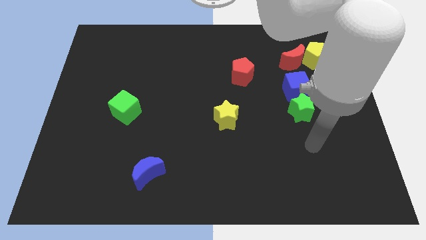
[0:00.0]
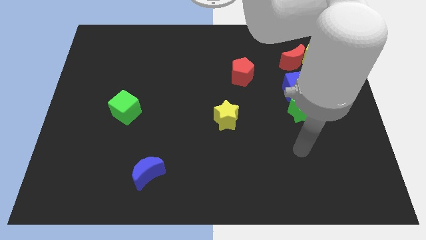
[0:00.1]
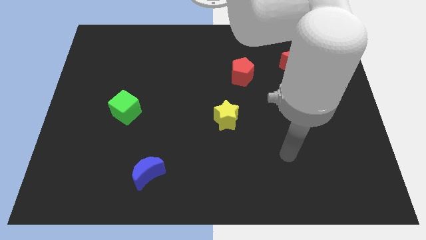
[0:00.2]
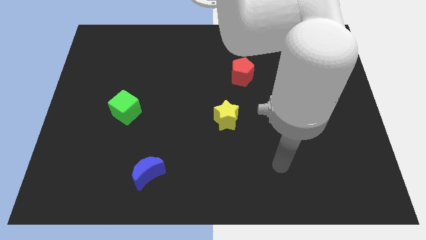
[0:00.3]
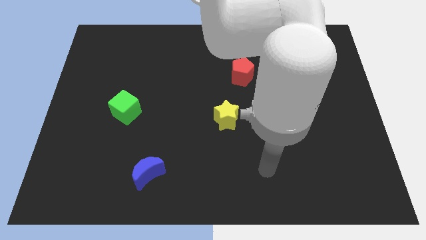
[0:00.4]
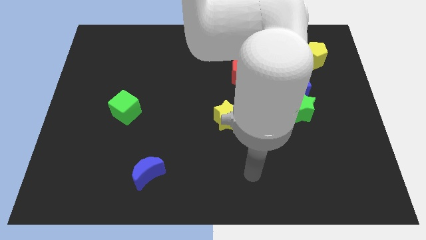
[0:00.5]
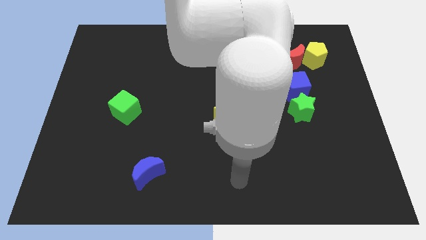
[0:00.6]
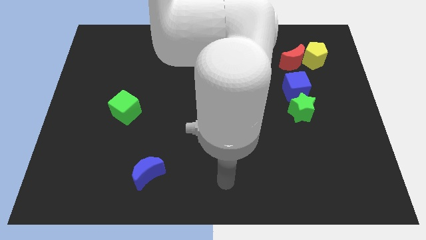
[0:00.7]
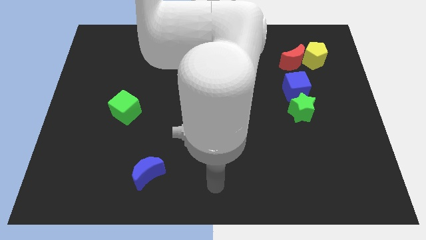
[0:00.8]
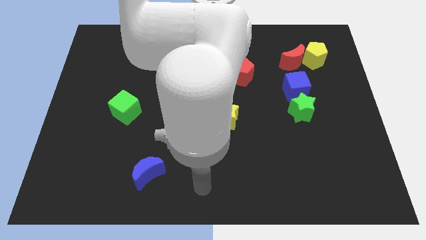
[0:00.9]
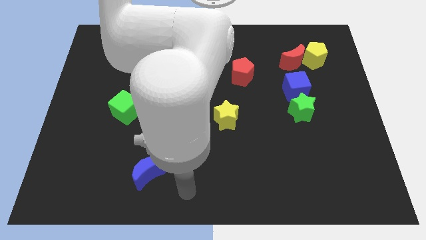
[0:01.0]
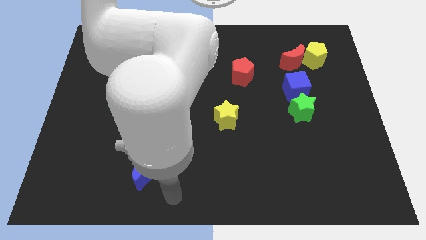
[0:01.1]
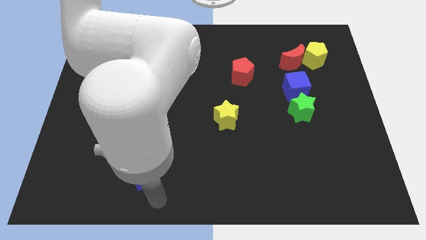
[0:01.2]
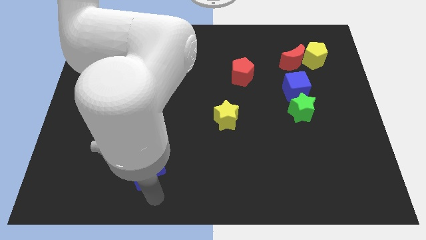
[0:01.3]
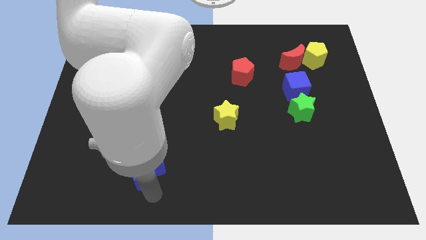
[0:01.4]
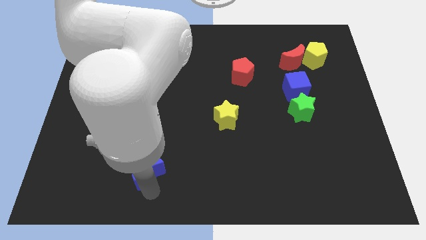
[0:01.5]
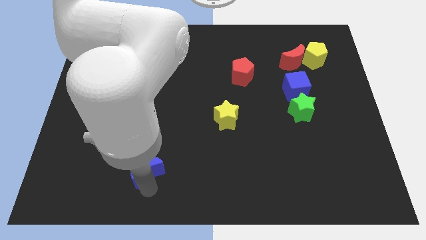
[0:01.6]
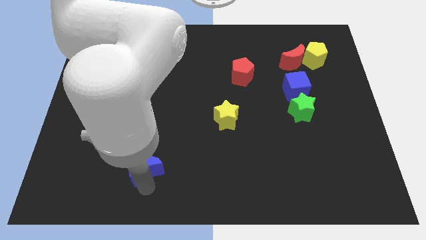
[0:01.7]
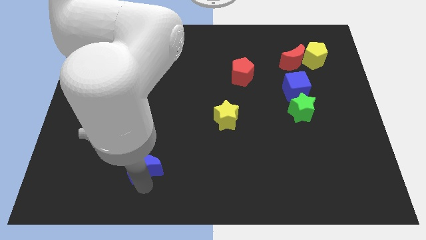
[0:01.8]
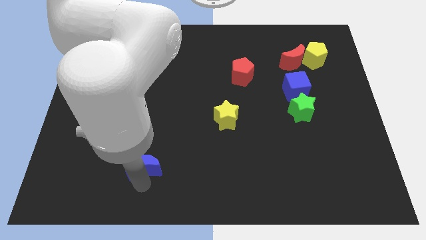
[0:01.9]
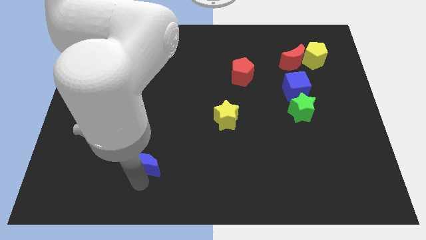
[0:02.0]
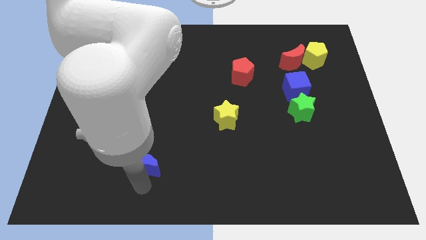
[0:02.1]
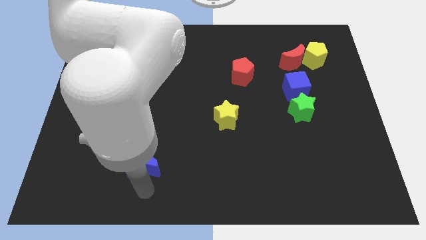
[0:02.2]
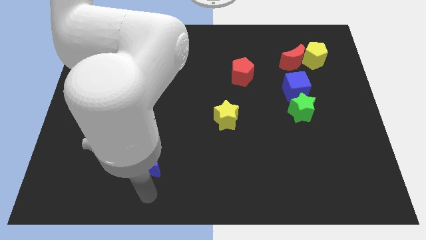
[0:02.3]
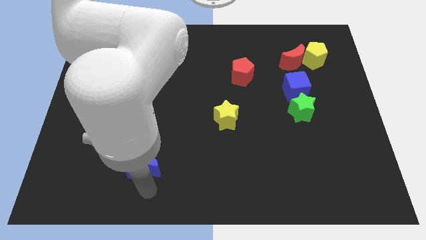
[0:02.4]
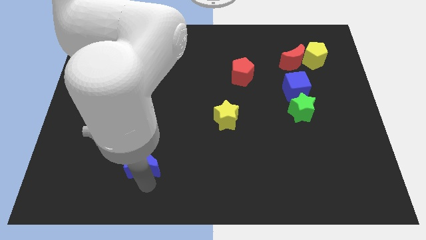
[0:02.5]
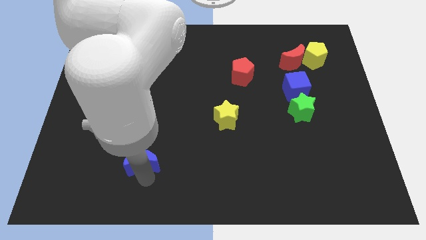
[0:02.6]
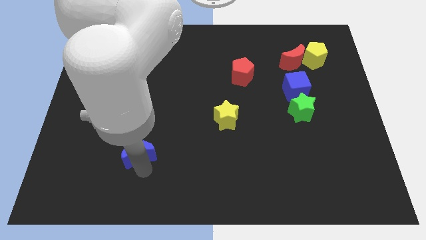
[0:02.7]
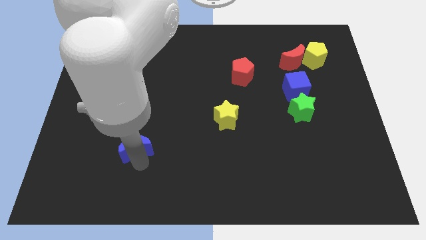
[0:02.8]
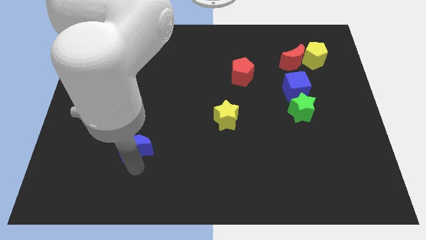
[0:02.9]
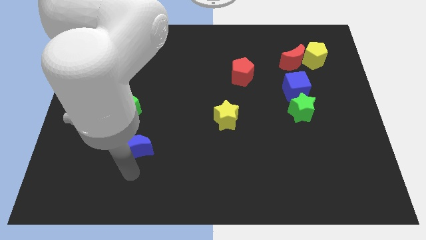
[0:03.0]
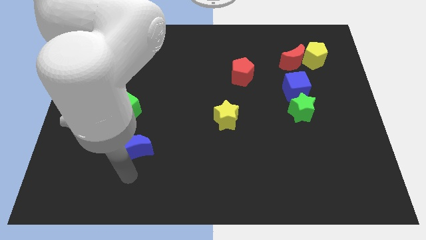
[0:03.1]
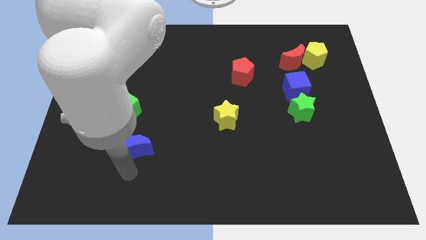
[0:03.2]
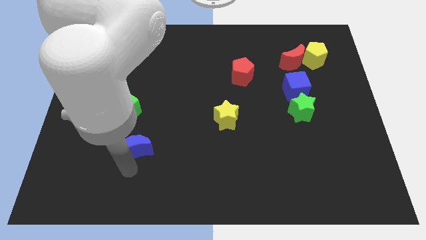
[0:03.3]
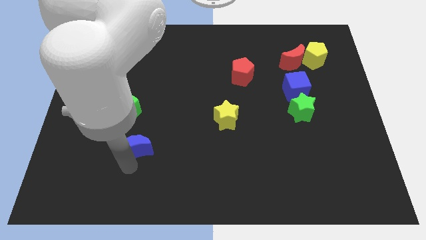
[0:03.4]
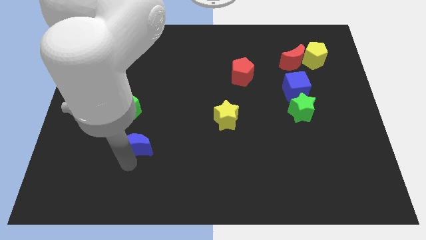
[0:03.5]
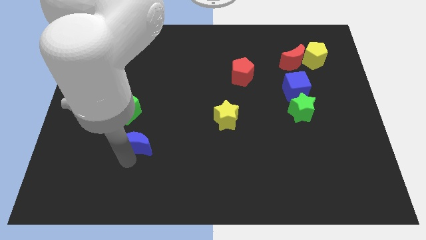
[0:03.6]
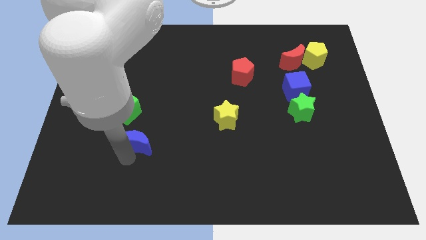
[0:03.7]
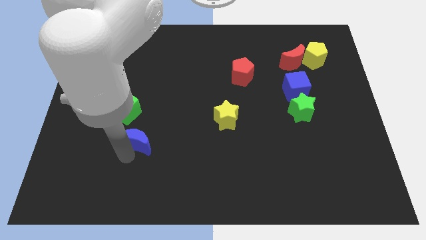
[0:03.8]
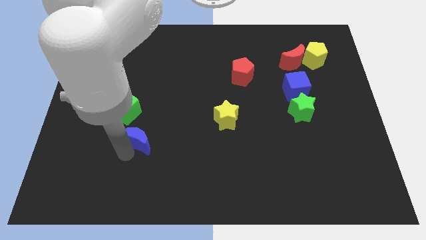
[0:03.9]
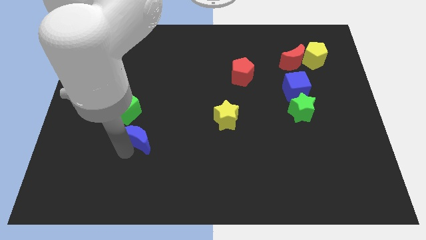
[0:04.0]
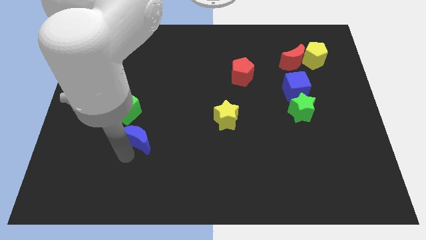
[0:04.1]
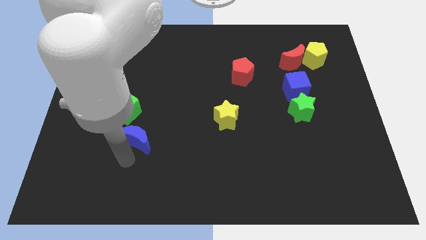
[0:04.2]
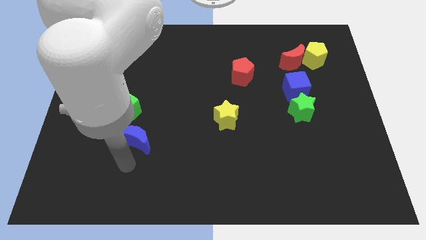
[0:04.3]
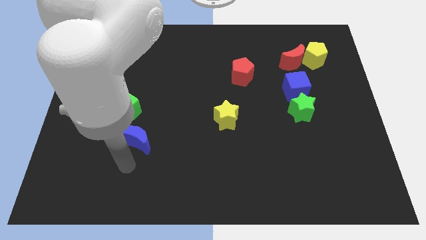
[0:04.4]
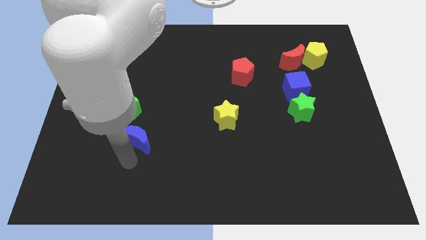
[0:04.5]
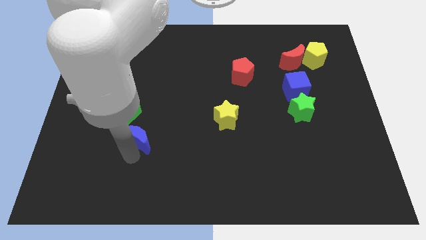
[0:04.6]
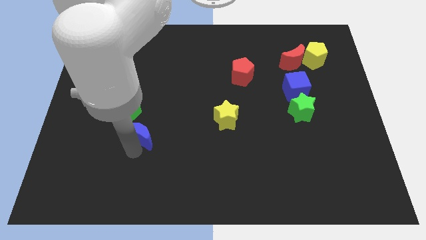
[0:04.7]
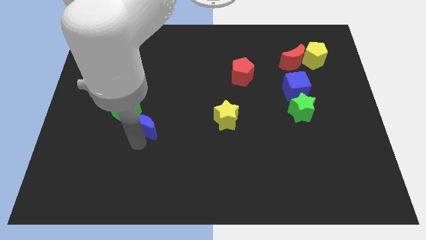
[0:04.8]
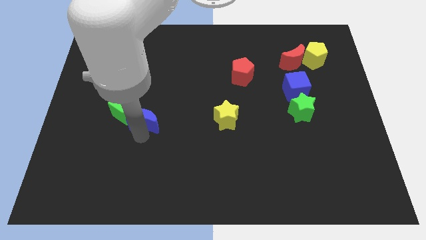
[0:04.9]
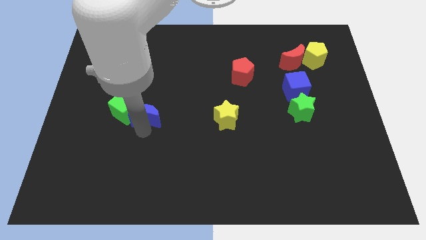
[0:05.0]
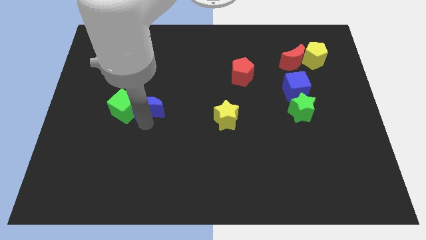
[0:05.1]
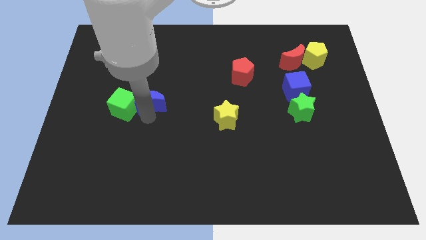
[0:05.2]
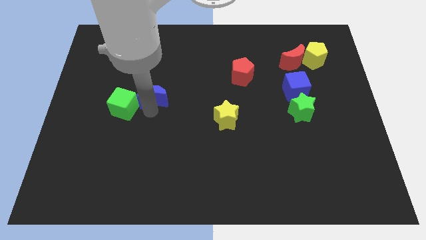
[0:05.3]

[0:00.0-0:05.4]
push the blue moon up

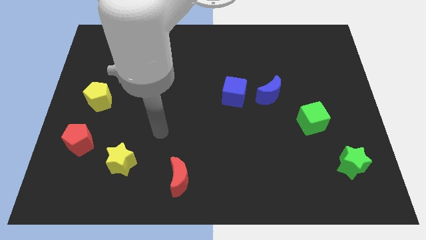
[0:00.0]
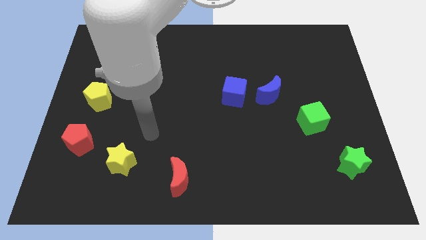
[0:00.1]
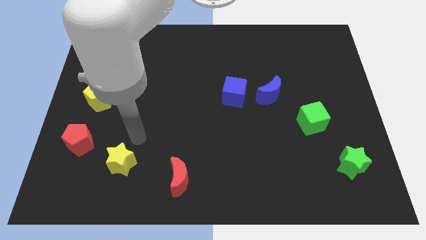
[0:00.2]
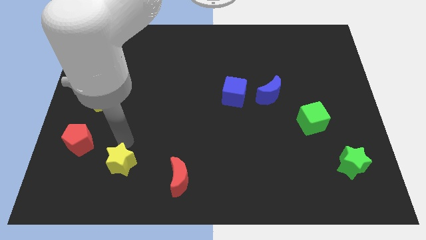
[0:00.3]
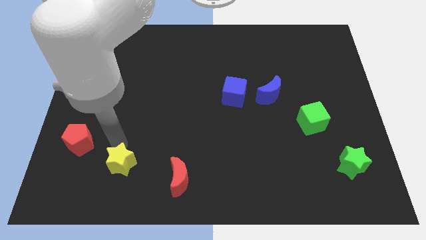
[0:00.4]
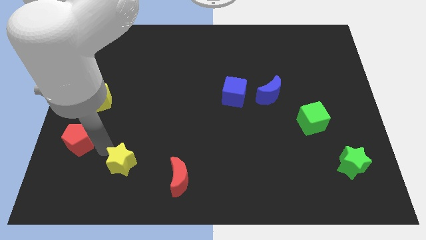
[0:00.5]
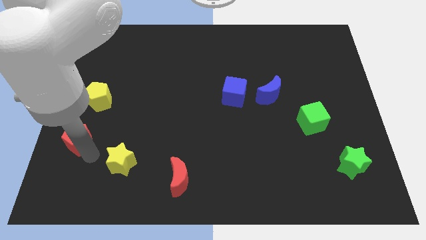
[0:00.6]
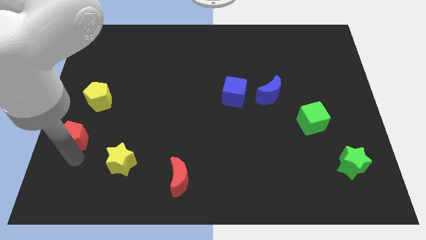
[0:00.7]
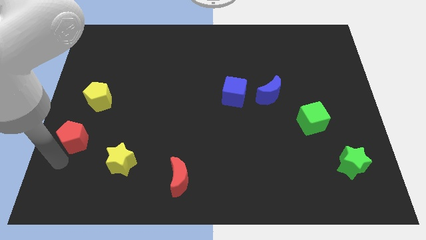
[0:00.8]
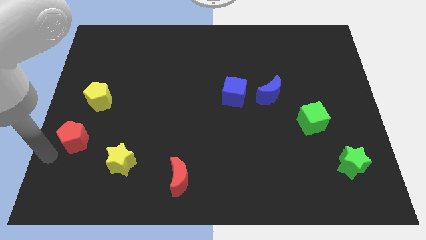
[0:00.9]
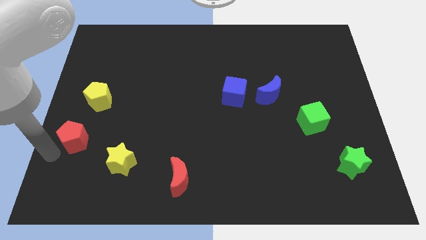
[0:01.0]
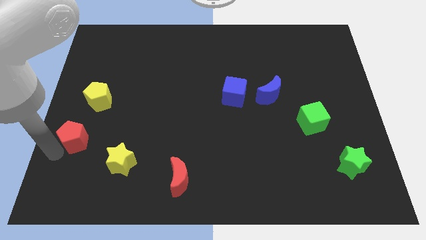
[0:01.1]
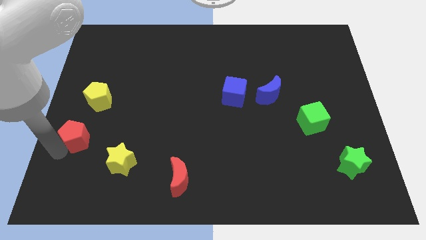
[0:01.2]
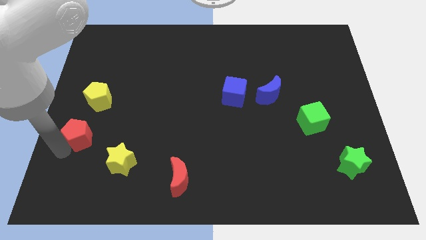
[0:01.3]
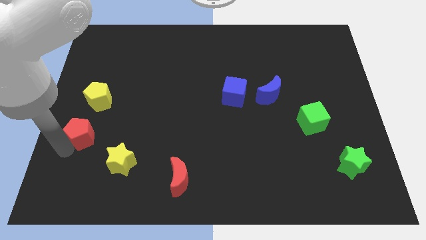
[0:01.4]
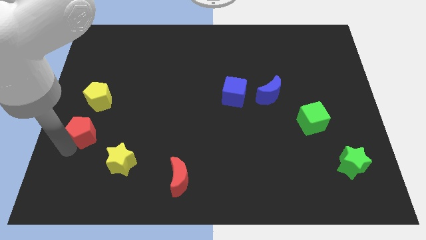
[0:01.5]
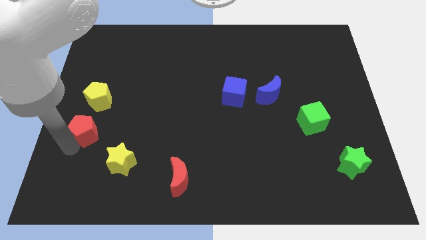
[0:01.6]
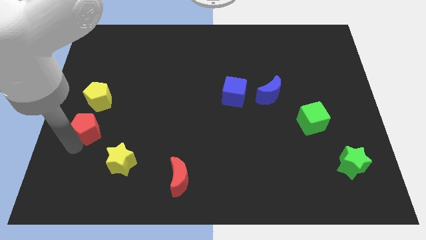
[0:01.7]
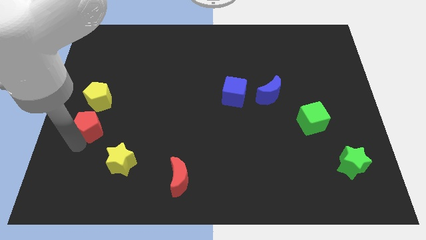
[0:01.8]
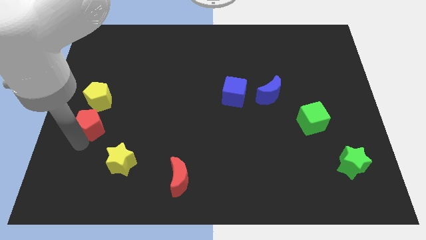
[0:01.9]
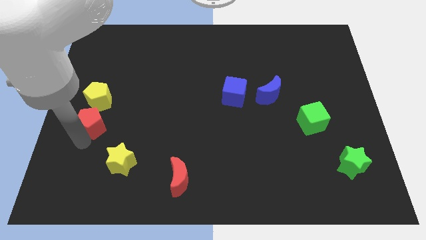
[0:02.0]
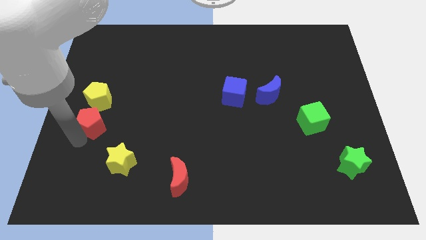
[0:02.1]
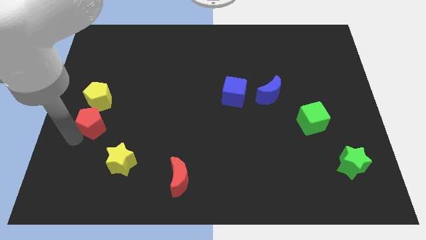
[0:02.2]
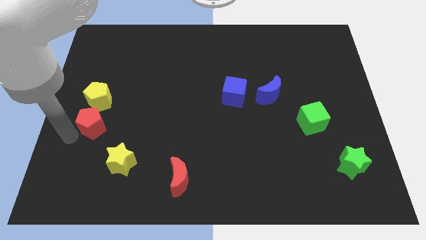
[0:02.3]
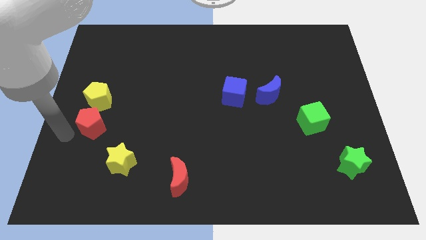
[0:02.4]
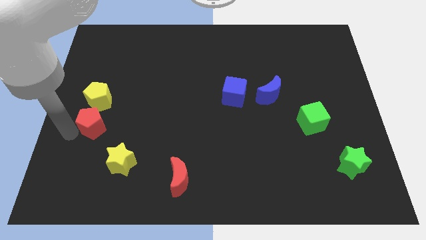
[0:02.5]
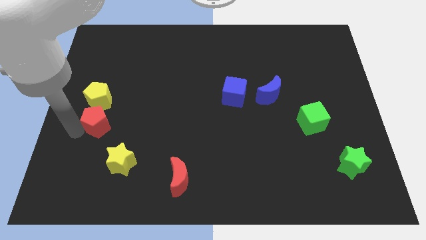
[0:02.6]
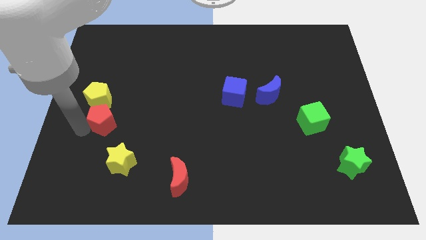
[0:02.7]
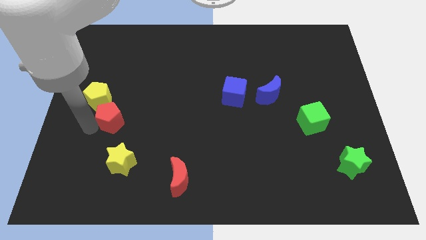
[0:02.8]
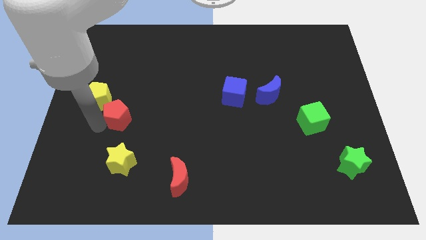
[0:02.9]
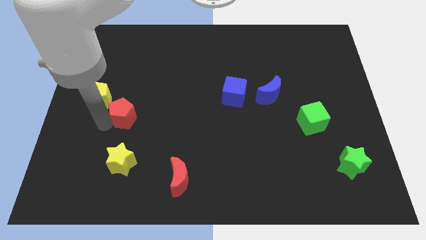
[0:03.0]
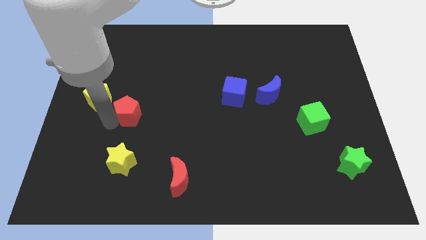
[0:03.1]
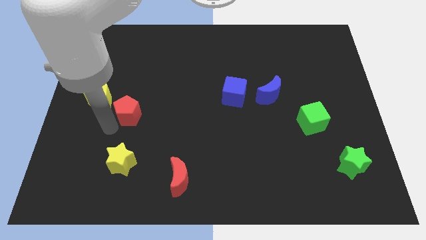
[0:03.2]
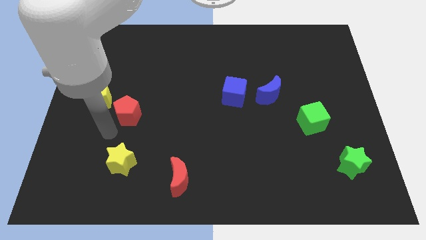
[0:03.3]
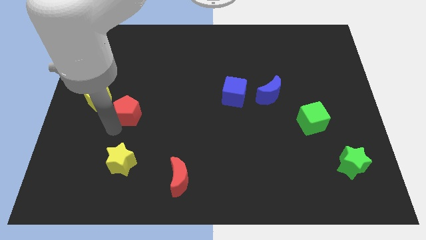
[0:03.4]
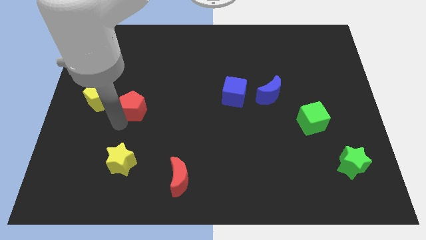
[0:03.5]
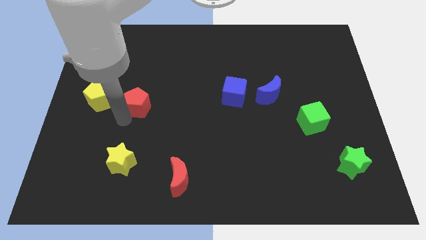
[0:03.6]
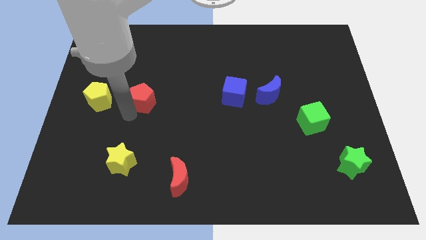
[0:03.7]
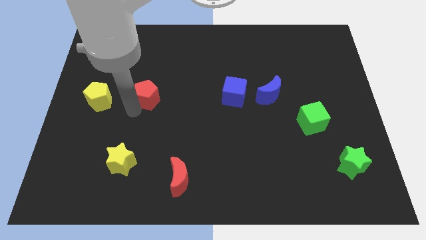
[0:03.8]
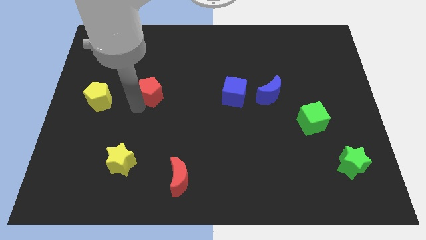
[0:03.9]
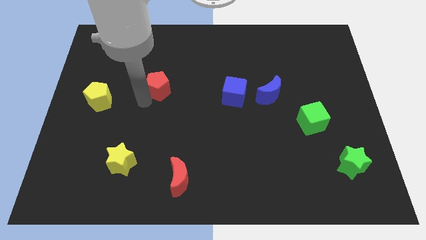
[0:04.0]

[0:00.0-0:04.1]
push the red pentagon diagonally up and right
